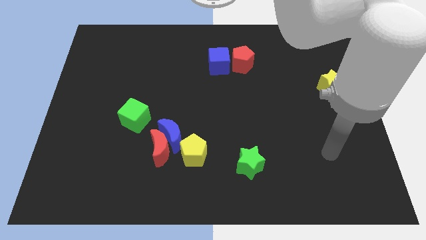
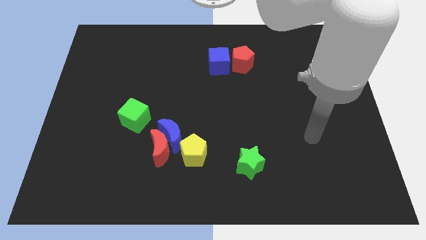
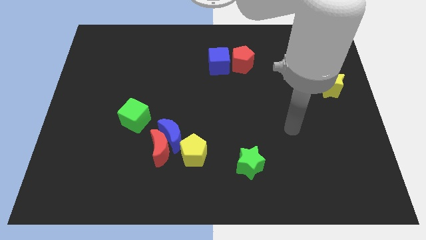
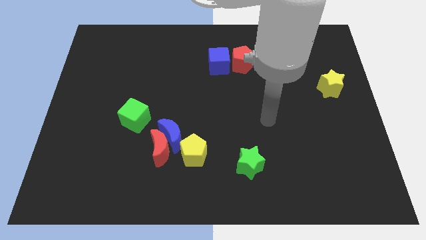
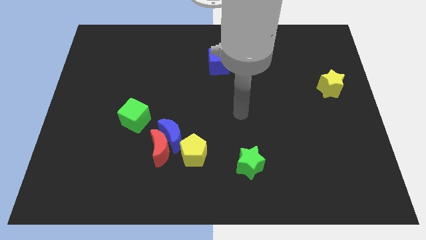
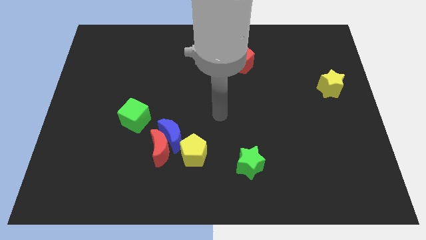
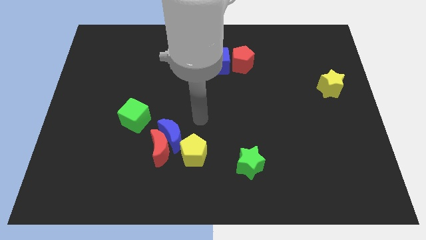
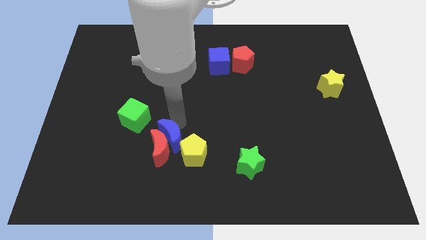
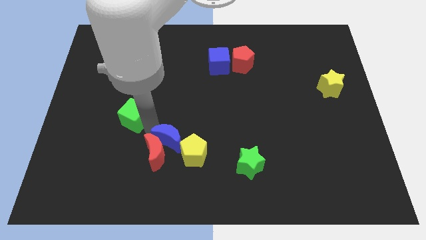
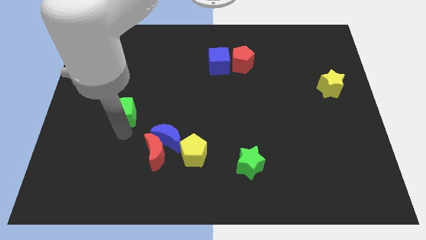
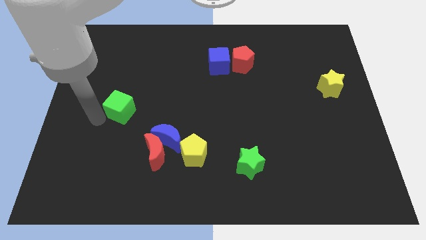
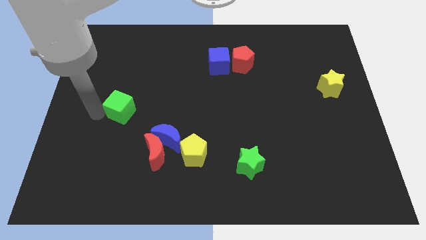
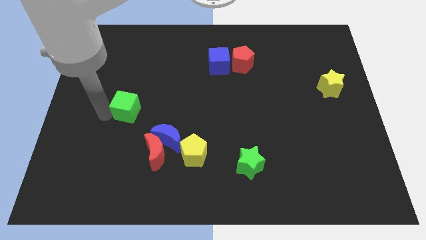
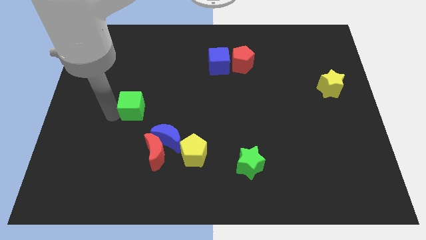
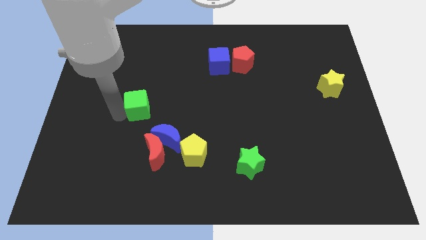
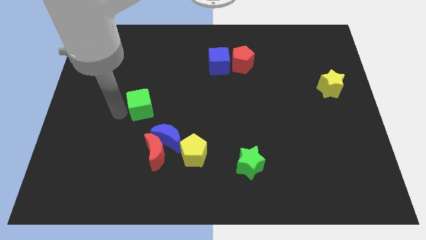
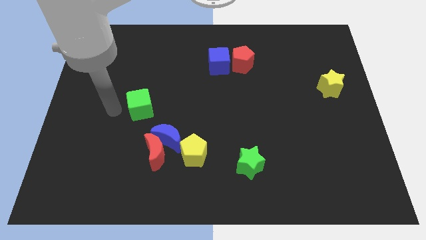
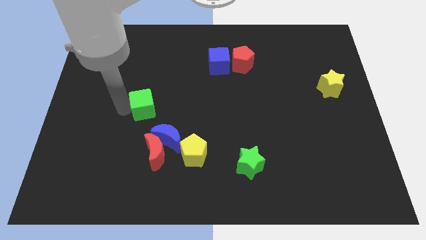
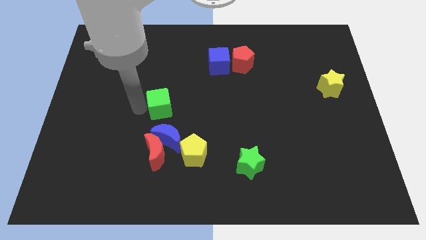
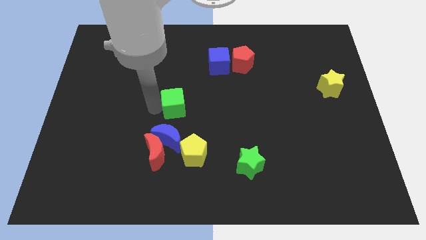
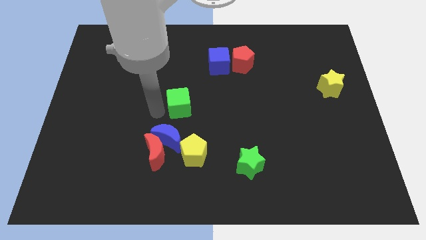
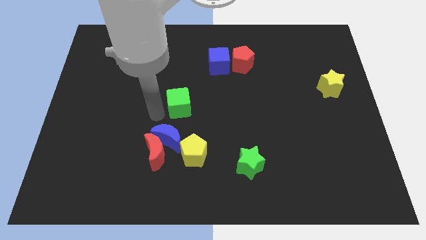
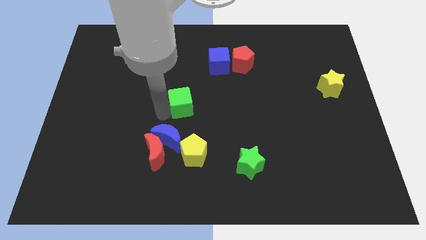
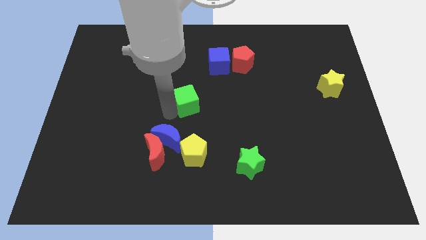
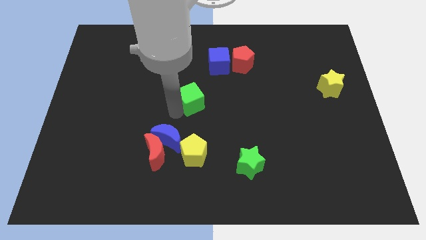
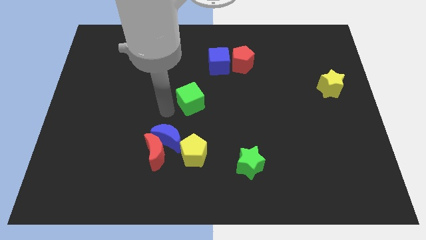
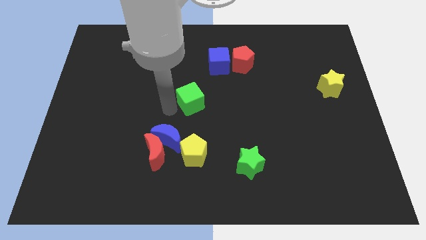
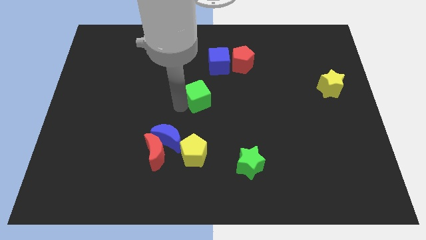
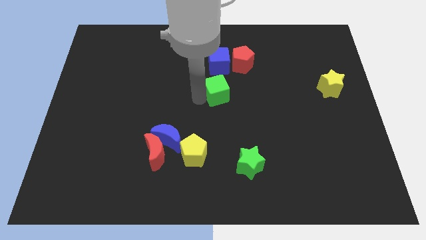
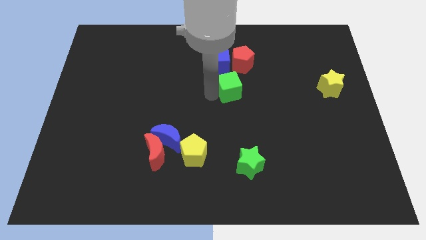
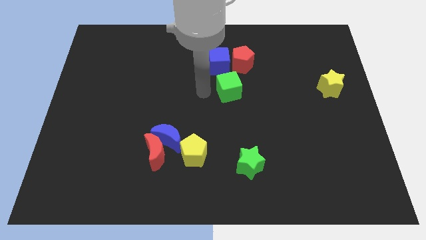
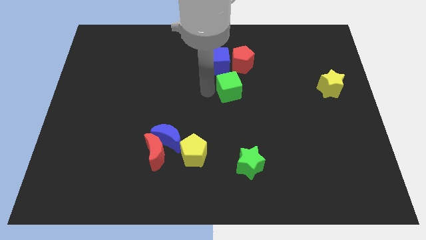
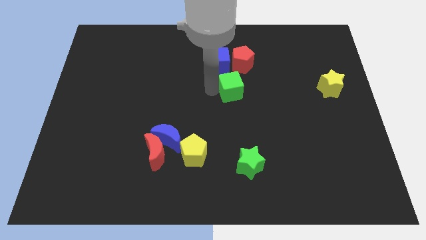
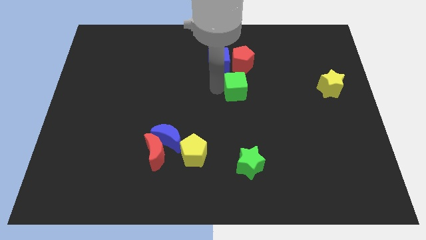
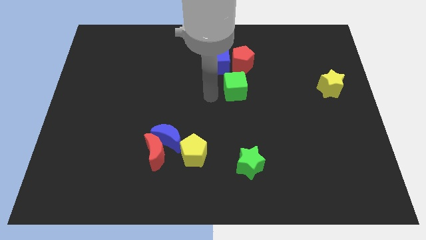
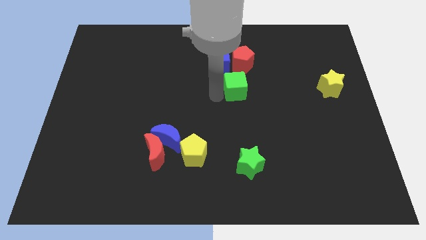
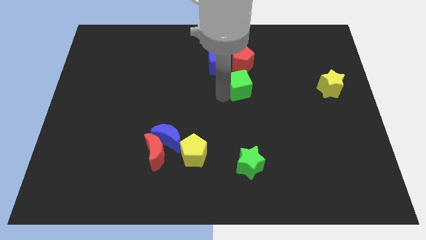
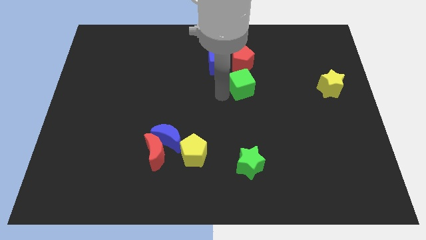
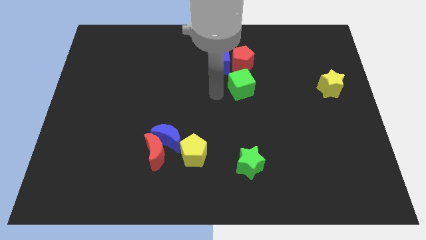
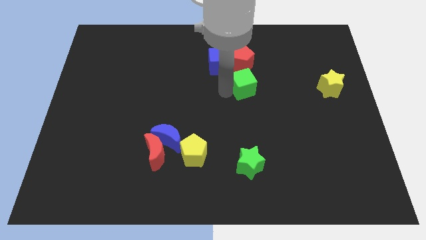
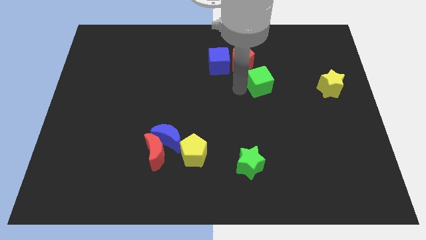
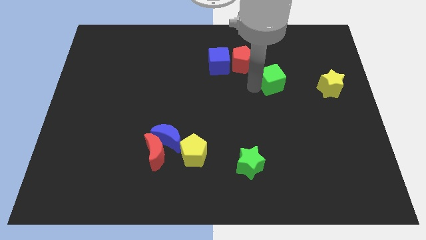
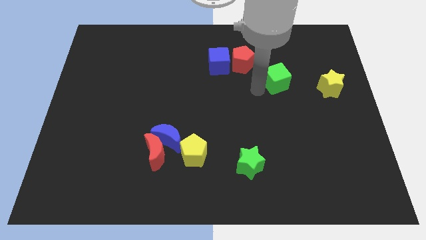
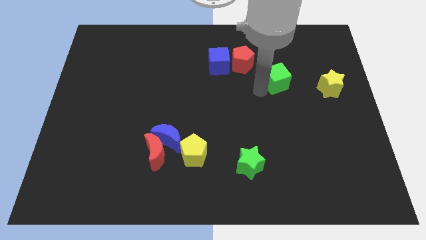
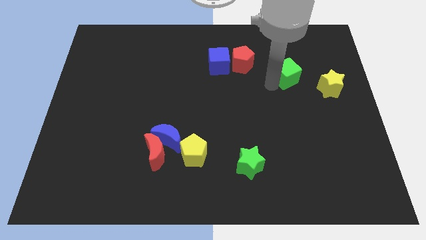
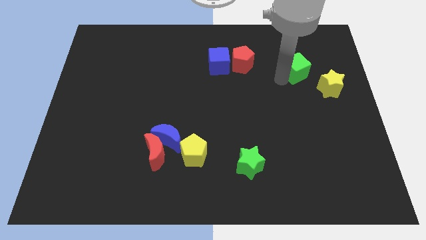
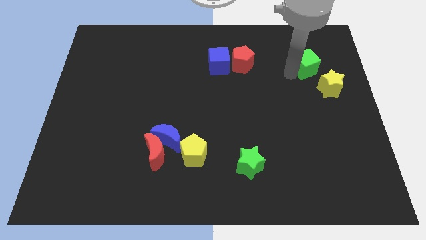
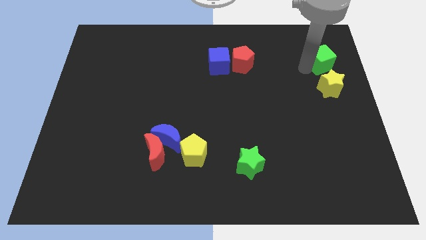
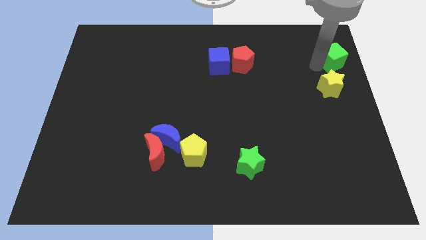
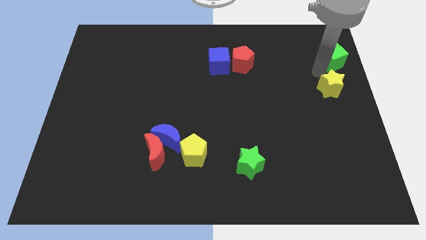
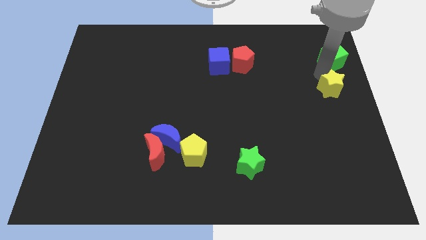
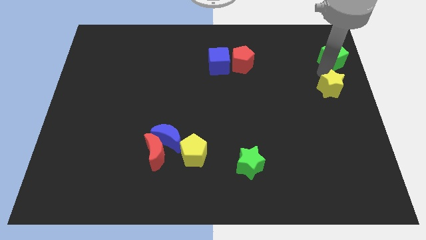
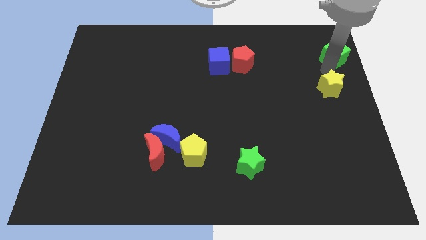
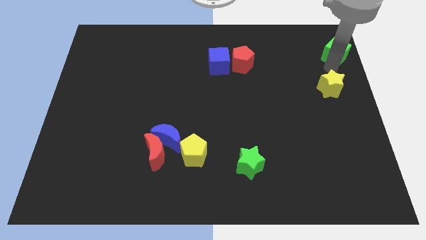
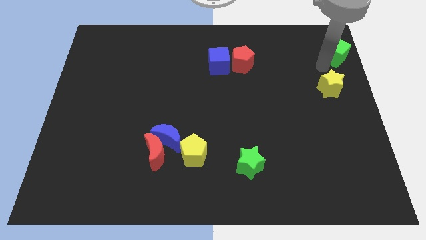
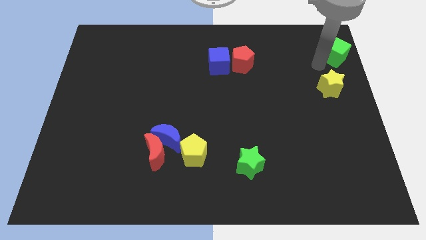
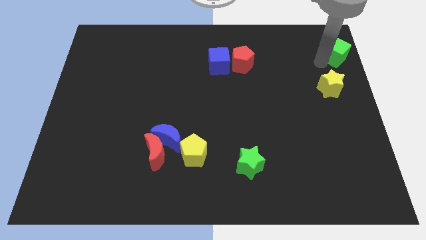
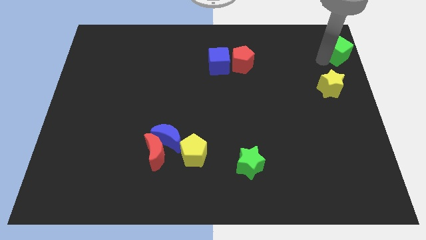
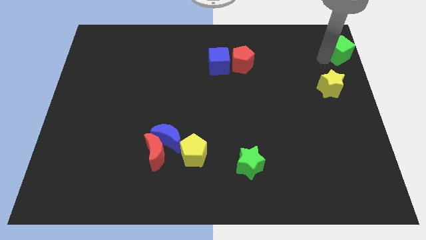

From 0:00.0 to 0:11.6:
push the green cube to the upper right corner

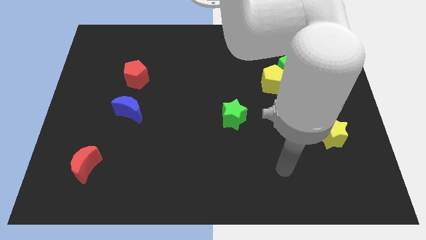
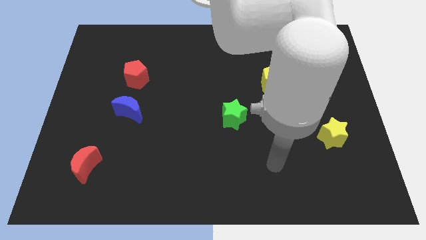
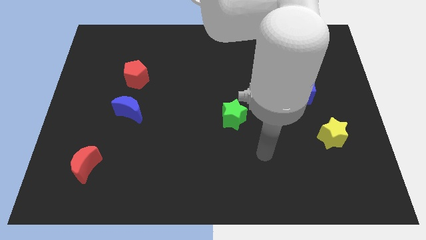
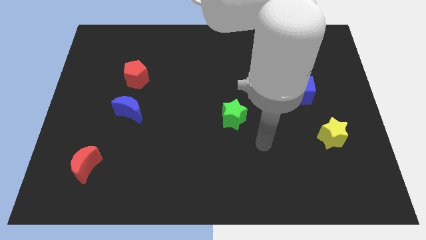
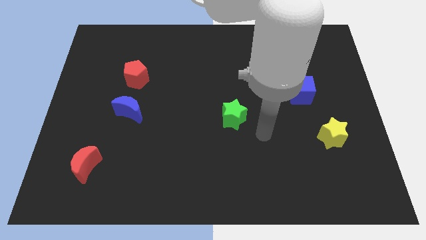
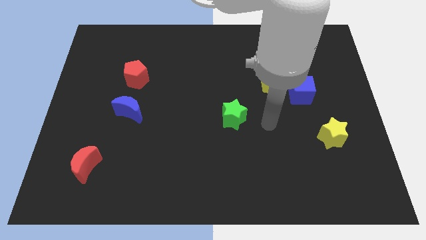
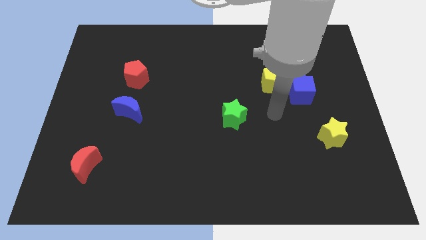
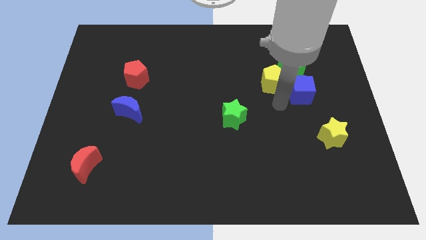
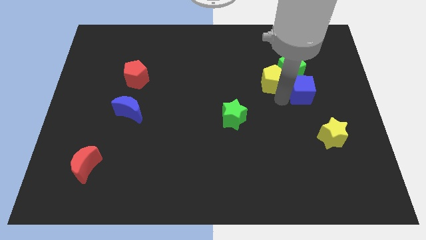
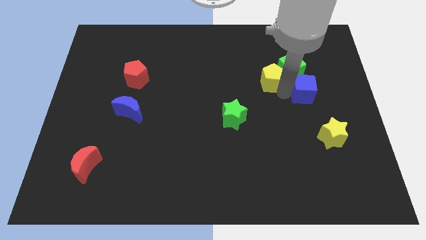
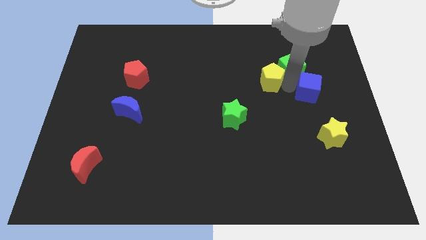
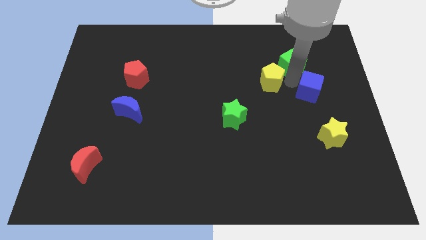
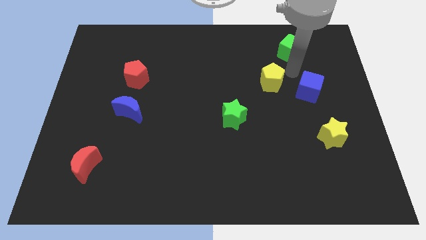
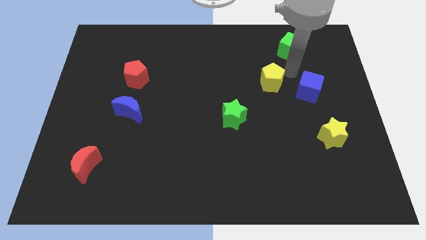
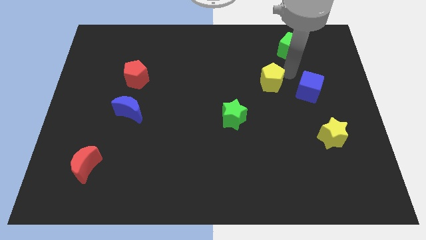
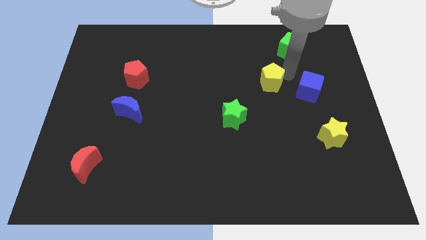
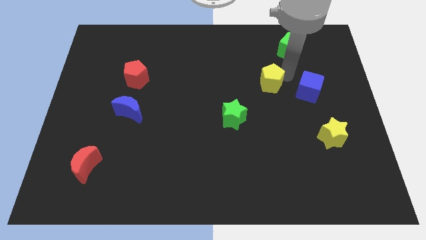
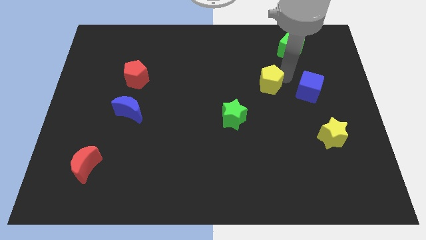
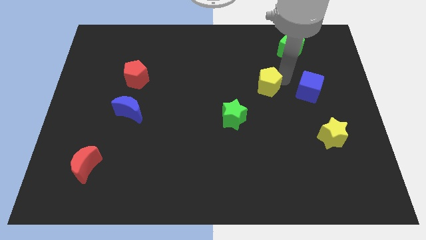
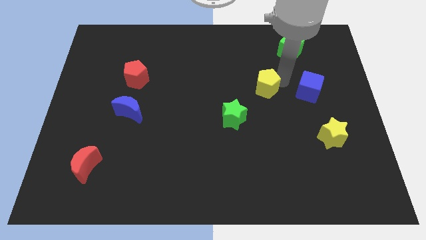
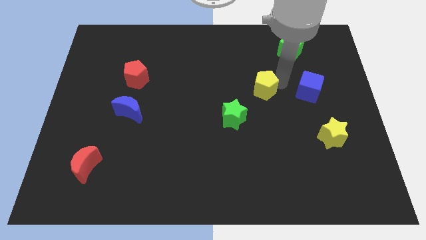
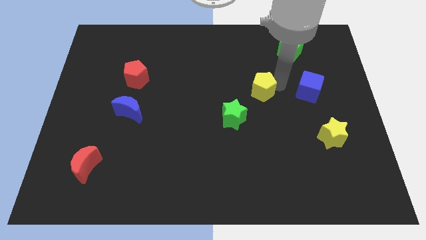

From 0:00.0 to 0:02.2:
put the yellow pentagon to the middle
